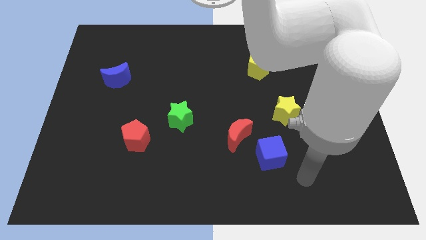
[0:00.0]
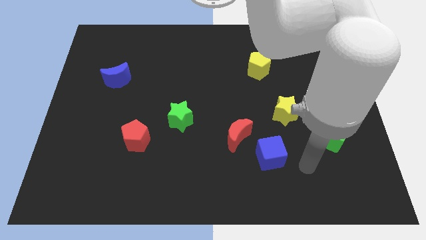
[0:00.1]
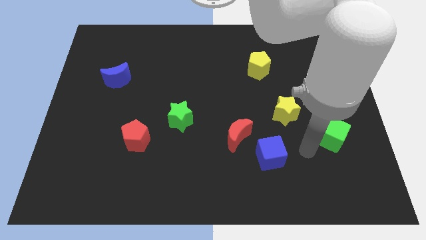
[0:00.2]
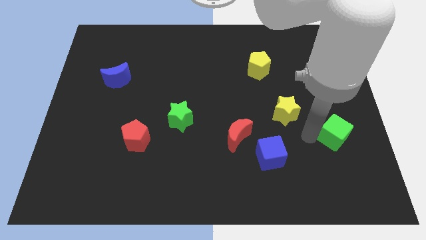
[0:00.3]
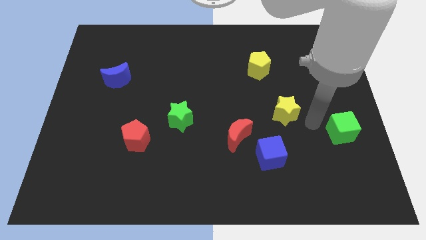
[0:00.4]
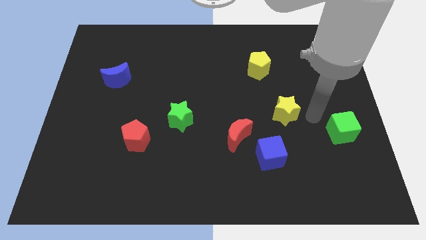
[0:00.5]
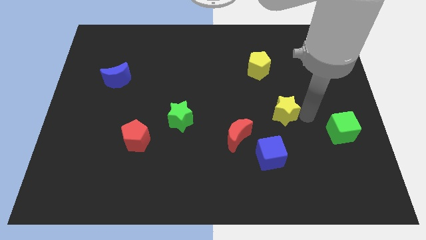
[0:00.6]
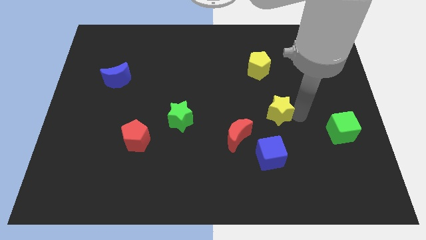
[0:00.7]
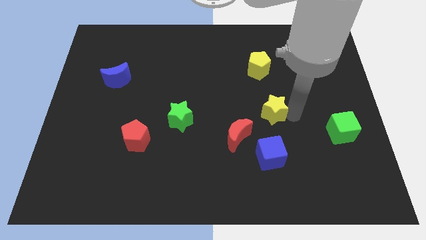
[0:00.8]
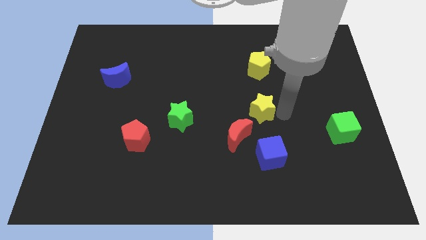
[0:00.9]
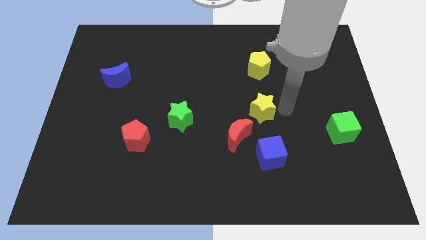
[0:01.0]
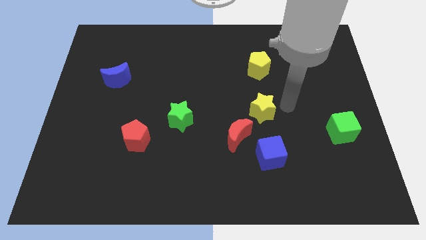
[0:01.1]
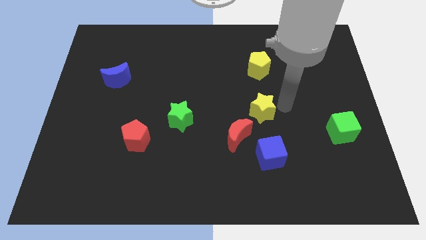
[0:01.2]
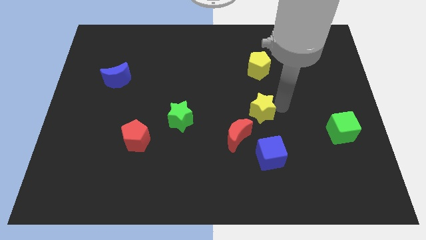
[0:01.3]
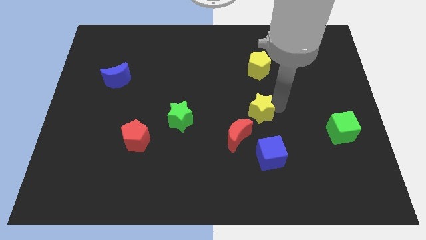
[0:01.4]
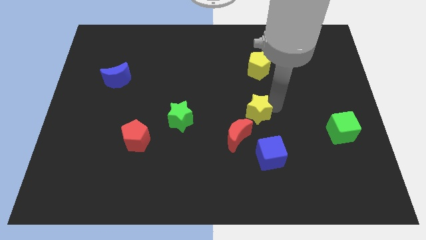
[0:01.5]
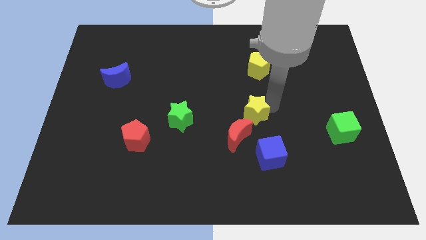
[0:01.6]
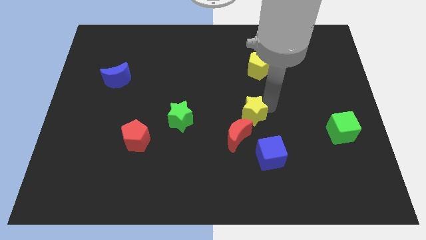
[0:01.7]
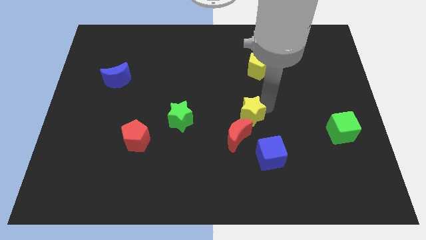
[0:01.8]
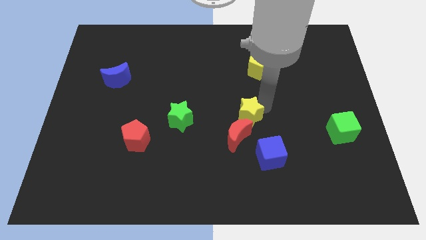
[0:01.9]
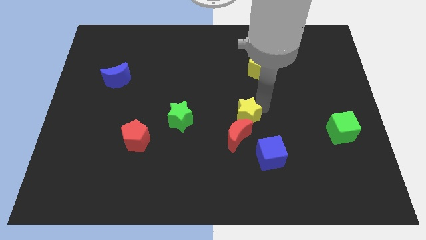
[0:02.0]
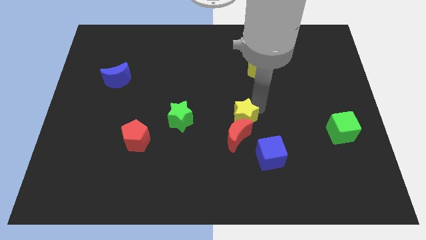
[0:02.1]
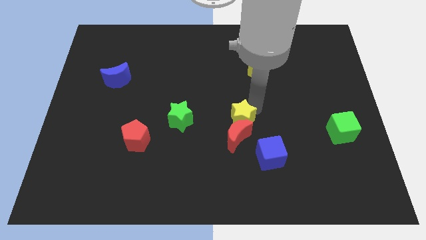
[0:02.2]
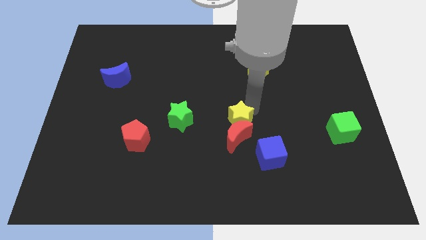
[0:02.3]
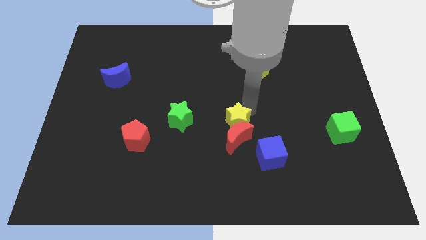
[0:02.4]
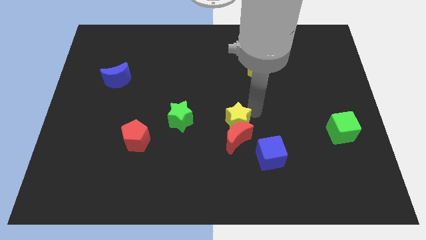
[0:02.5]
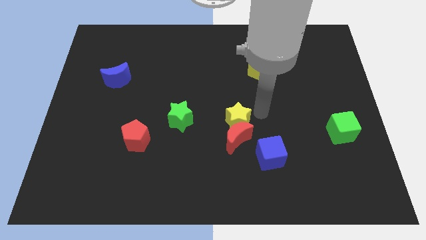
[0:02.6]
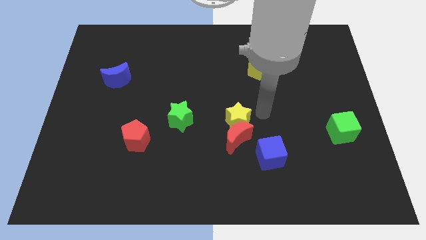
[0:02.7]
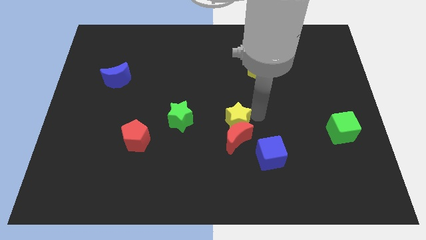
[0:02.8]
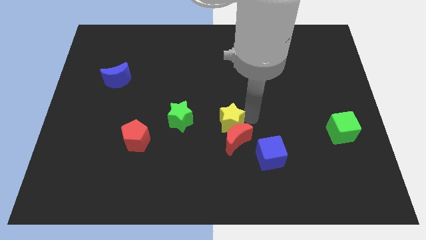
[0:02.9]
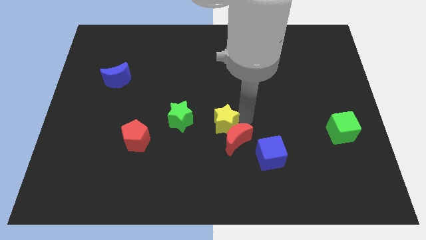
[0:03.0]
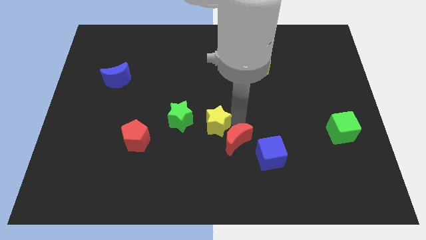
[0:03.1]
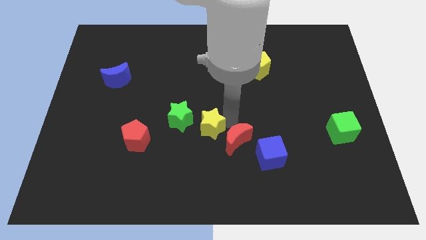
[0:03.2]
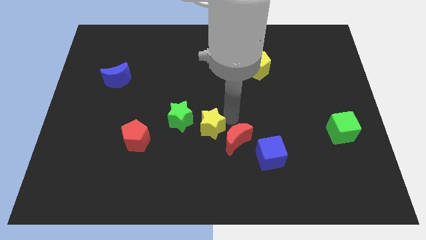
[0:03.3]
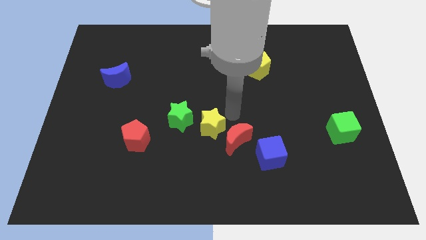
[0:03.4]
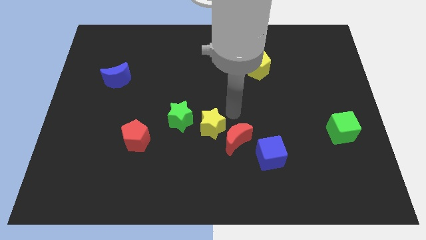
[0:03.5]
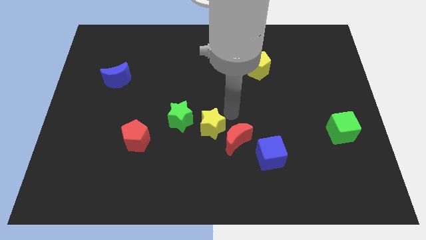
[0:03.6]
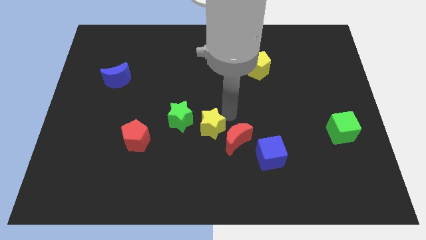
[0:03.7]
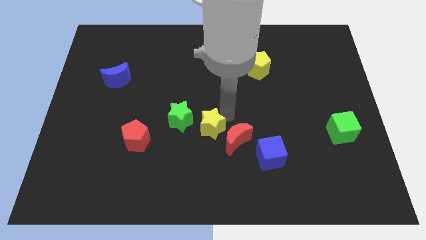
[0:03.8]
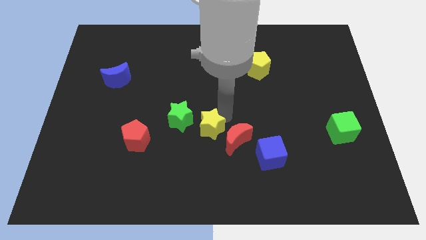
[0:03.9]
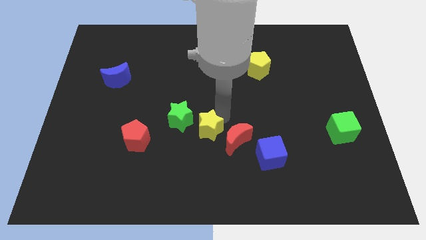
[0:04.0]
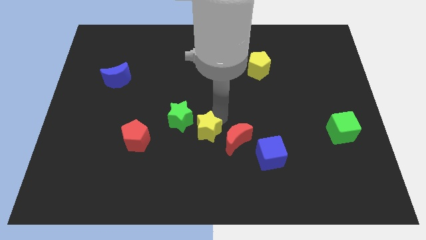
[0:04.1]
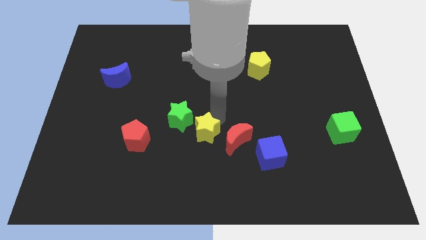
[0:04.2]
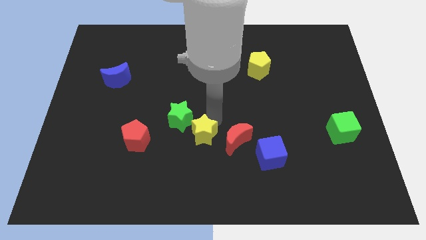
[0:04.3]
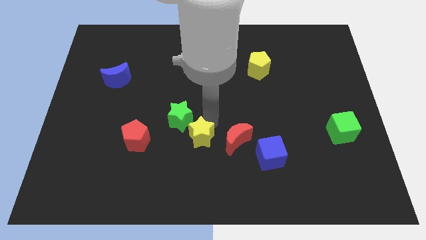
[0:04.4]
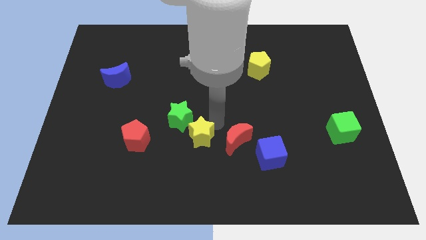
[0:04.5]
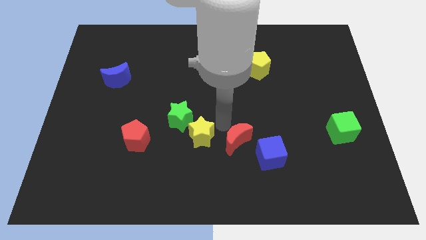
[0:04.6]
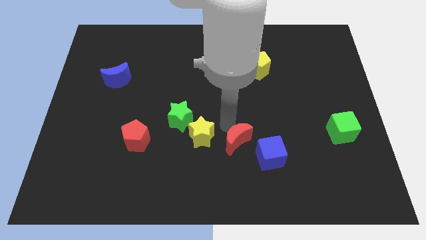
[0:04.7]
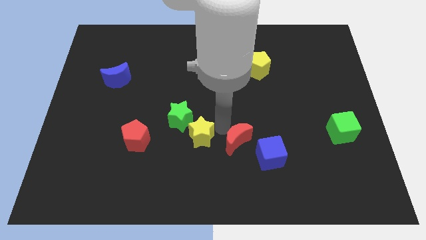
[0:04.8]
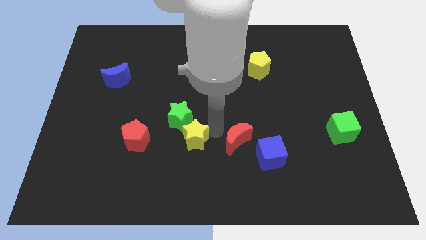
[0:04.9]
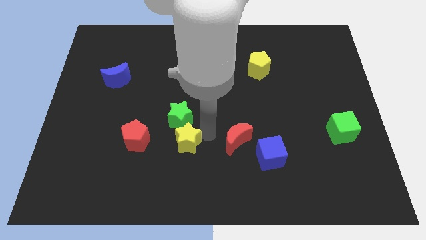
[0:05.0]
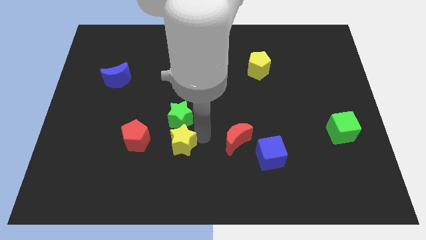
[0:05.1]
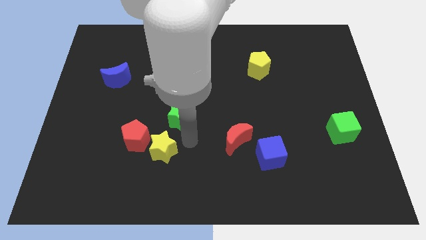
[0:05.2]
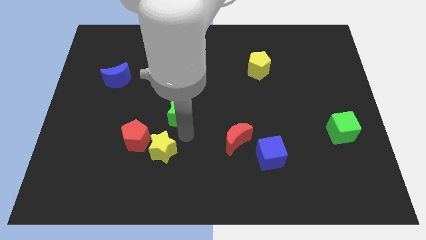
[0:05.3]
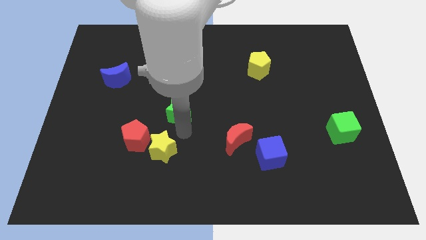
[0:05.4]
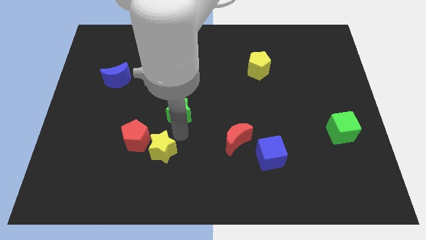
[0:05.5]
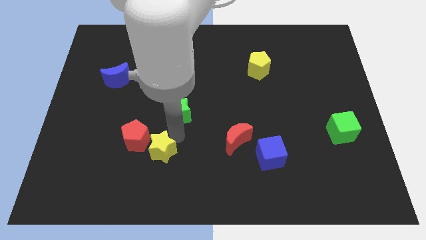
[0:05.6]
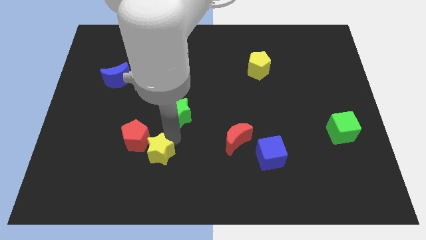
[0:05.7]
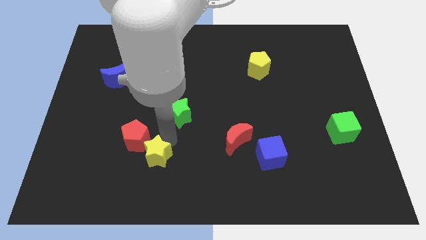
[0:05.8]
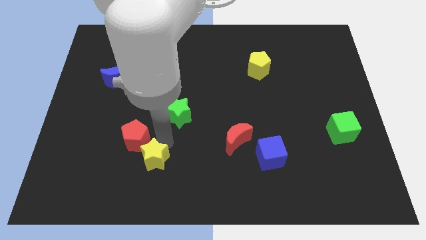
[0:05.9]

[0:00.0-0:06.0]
push the yellow star to the bottom of the red pentagon
